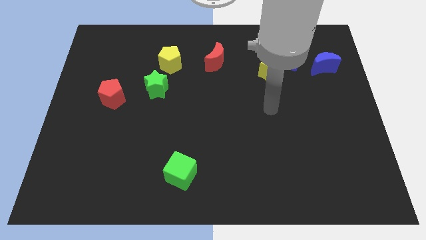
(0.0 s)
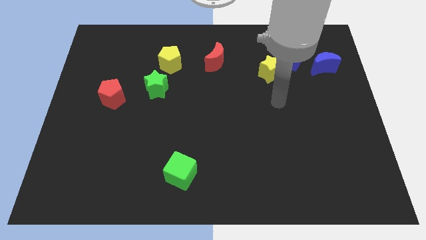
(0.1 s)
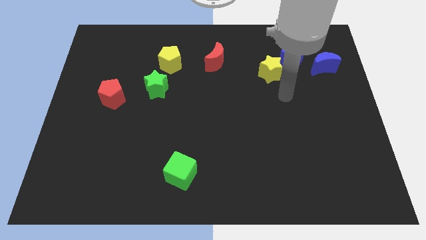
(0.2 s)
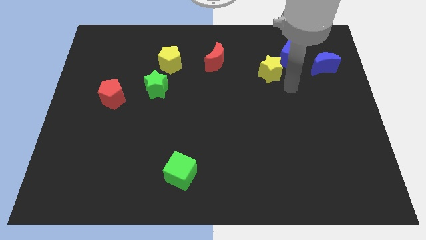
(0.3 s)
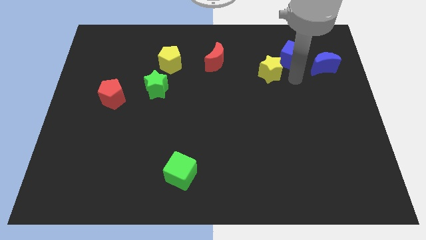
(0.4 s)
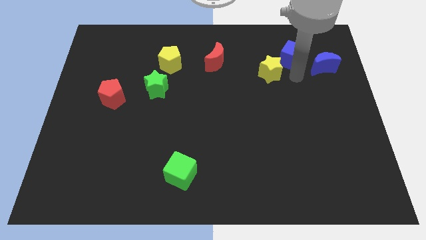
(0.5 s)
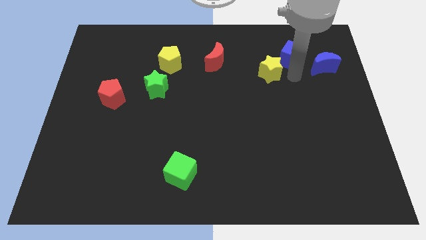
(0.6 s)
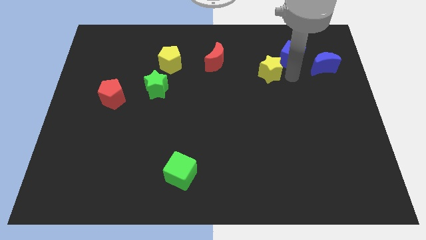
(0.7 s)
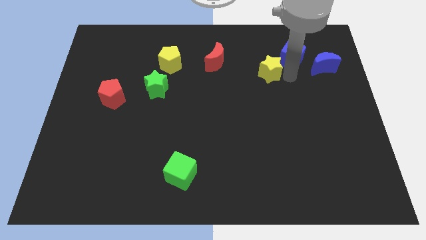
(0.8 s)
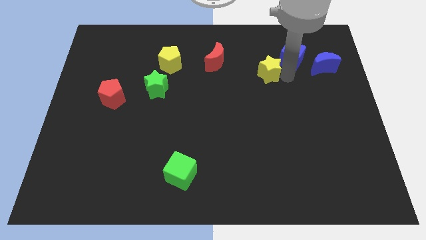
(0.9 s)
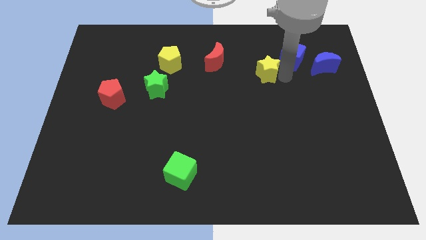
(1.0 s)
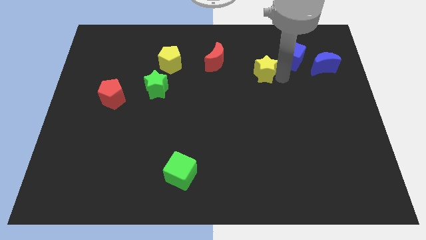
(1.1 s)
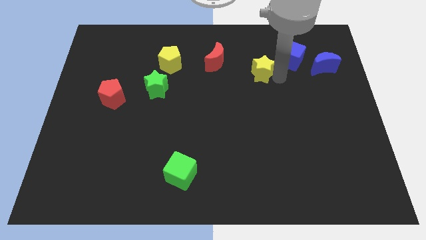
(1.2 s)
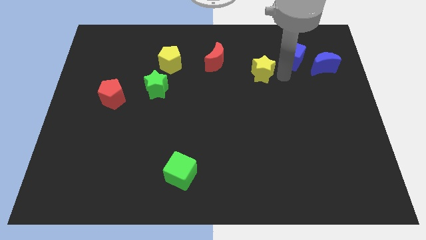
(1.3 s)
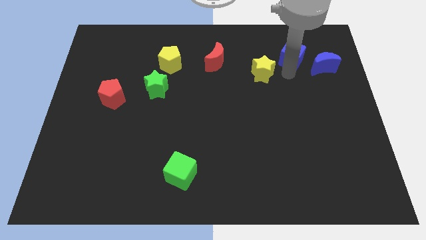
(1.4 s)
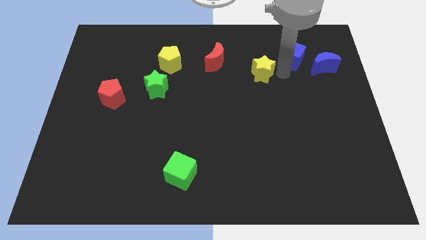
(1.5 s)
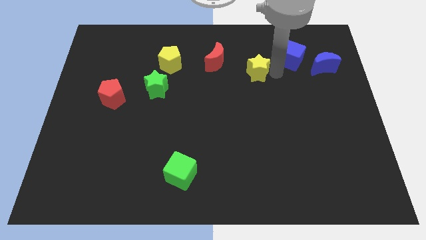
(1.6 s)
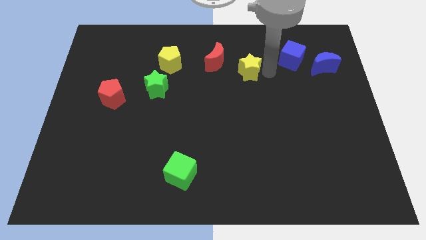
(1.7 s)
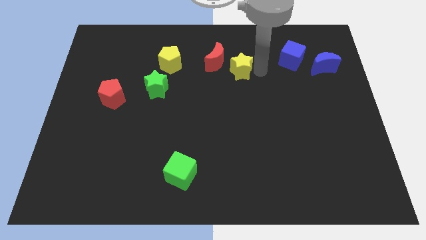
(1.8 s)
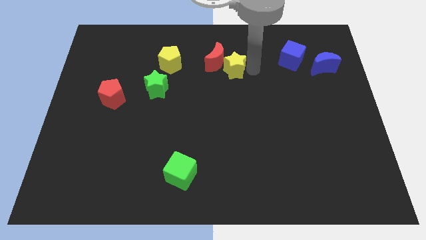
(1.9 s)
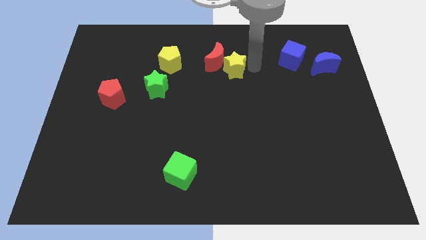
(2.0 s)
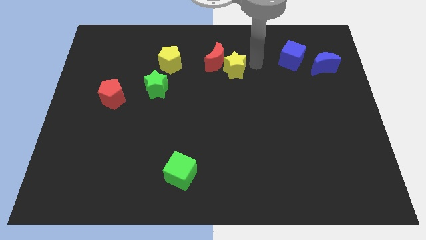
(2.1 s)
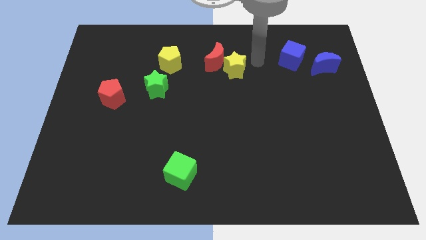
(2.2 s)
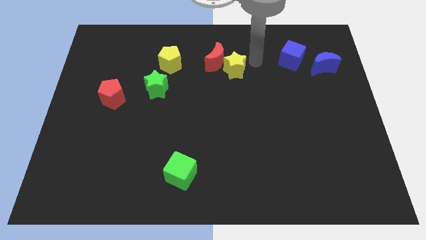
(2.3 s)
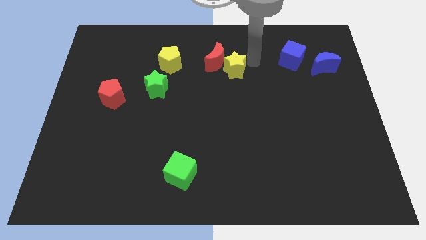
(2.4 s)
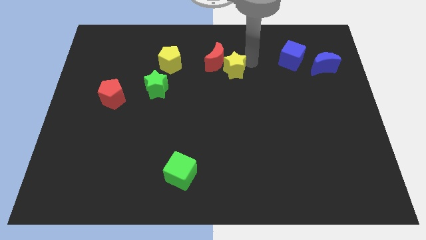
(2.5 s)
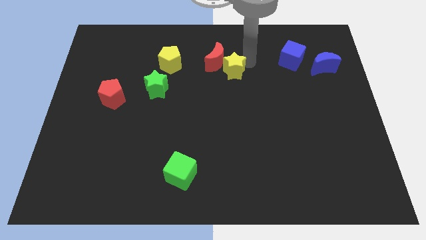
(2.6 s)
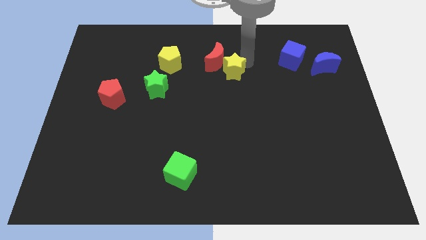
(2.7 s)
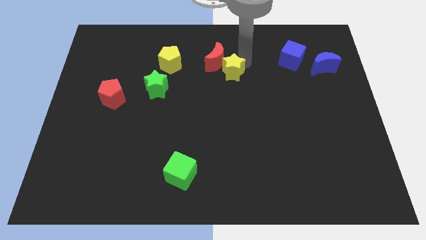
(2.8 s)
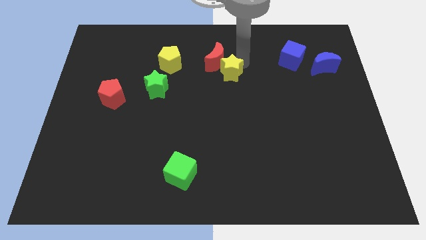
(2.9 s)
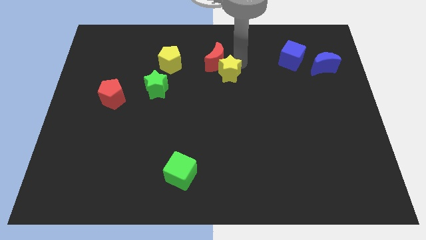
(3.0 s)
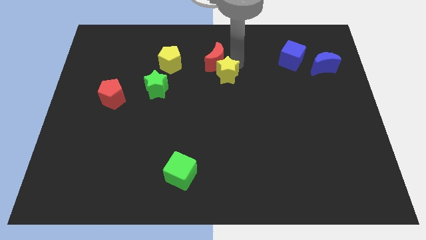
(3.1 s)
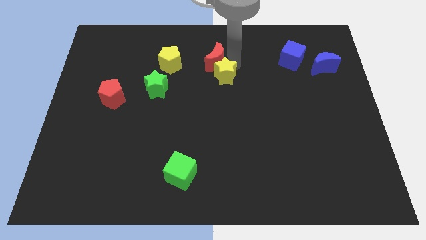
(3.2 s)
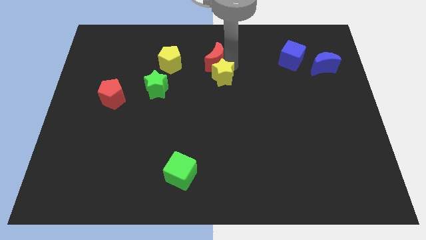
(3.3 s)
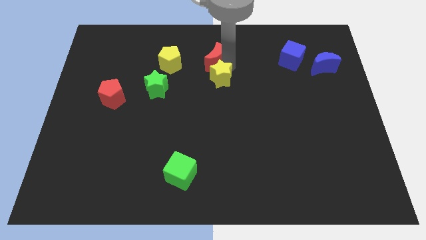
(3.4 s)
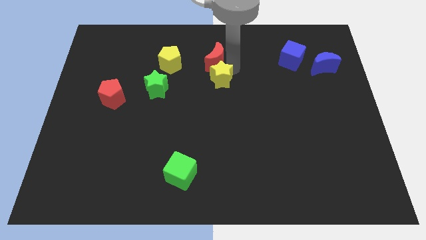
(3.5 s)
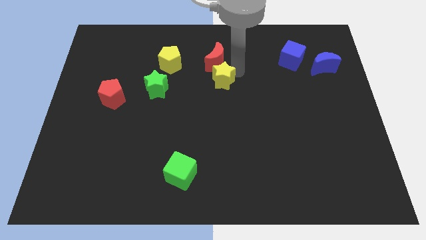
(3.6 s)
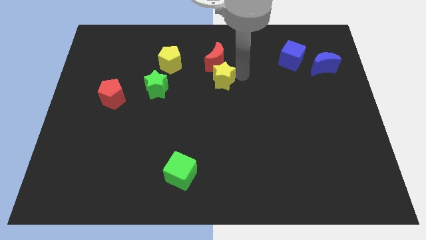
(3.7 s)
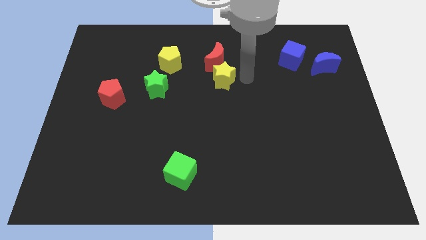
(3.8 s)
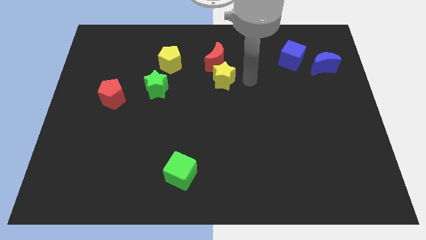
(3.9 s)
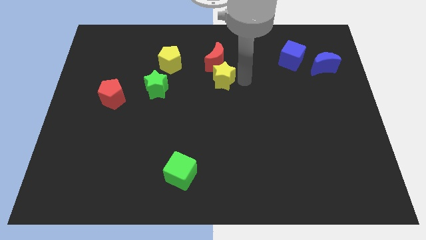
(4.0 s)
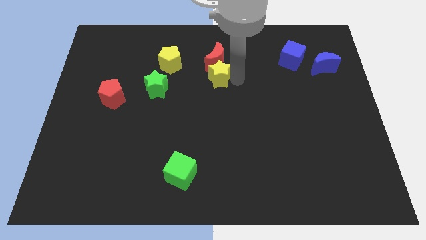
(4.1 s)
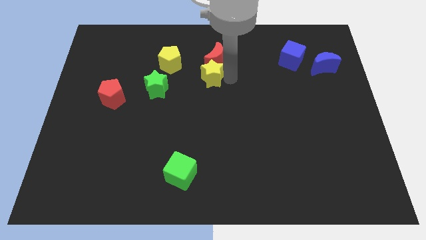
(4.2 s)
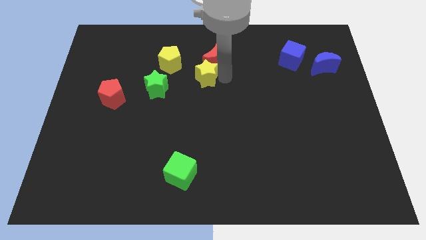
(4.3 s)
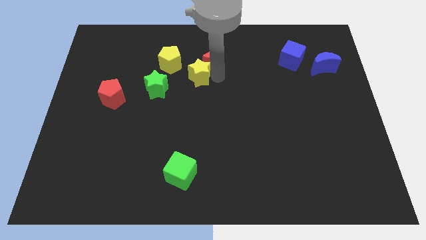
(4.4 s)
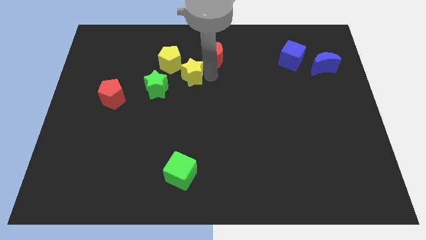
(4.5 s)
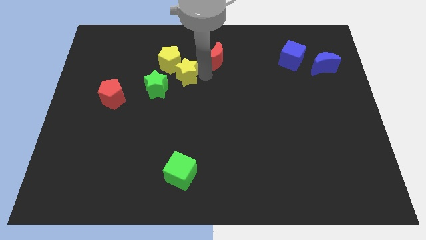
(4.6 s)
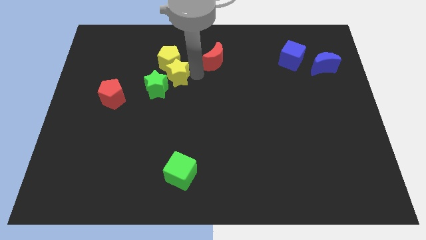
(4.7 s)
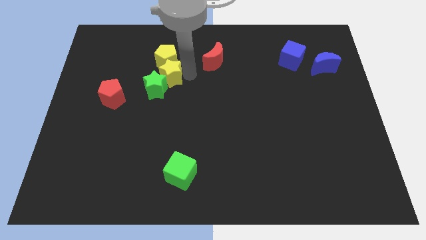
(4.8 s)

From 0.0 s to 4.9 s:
slide the yellow star to the bottom left side of the yellow pentagon

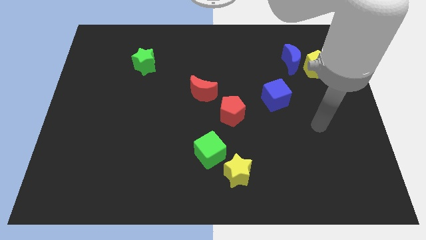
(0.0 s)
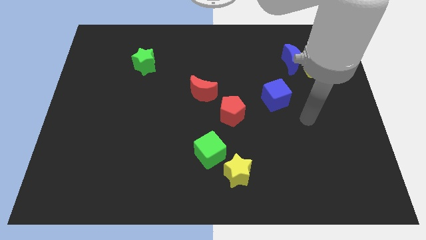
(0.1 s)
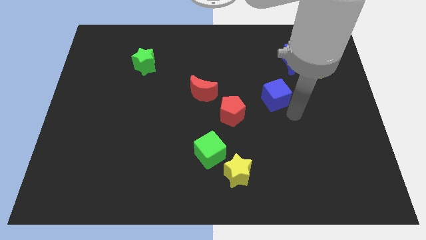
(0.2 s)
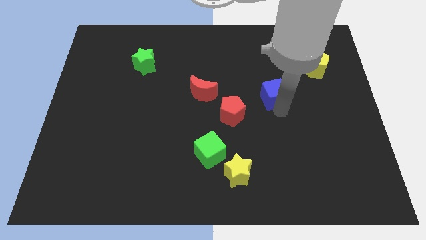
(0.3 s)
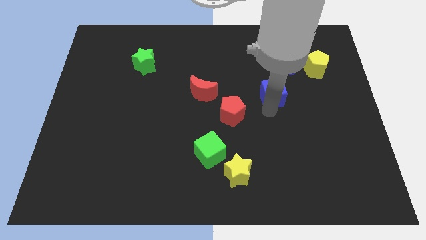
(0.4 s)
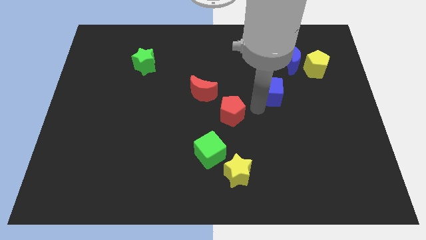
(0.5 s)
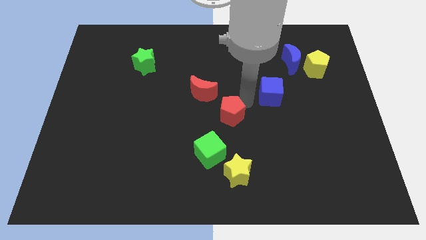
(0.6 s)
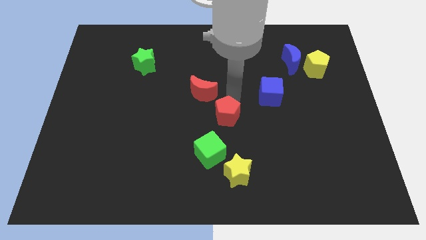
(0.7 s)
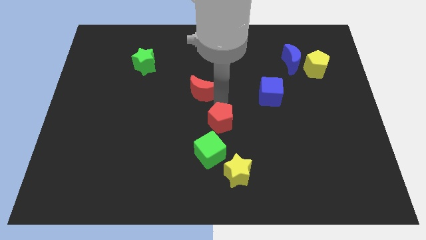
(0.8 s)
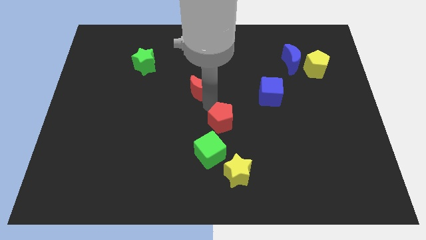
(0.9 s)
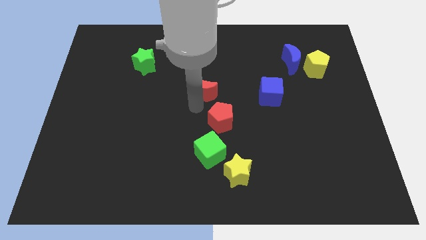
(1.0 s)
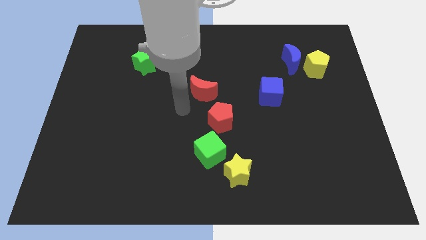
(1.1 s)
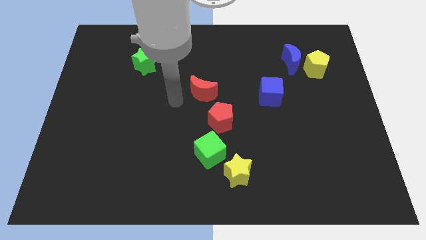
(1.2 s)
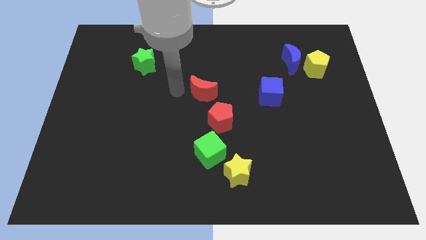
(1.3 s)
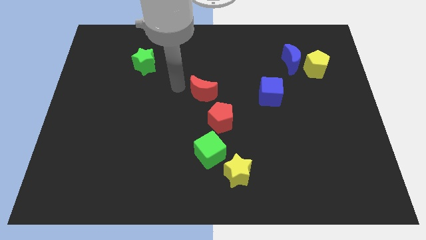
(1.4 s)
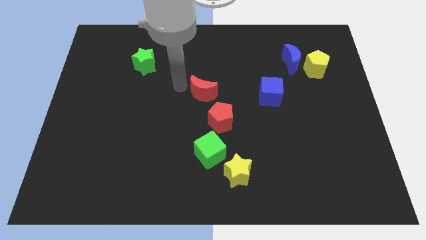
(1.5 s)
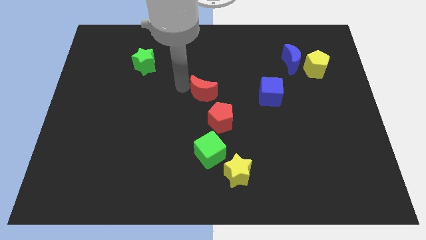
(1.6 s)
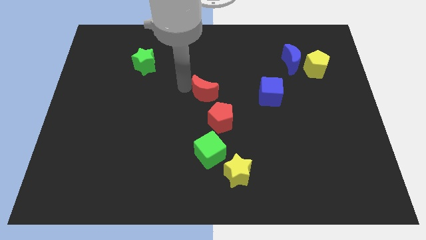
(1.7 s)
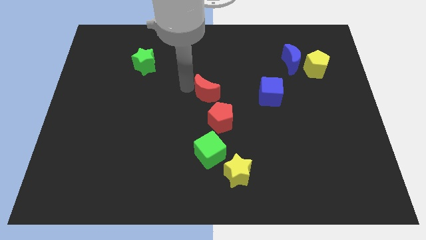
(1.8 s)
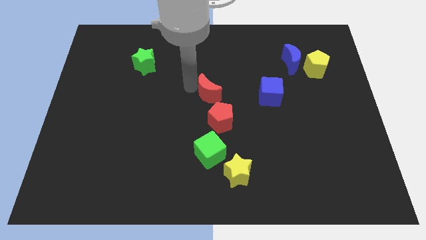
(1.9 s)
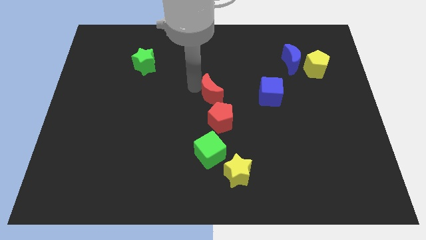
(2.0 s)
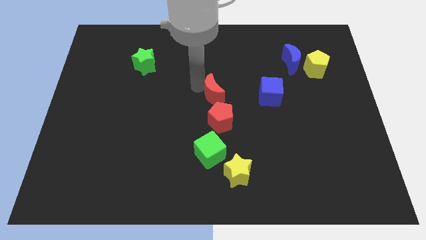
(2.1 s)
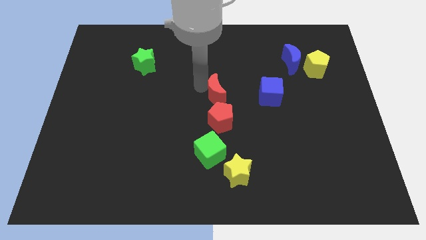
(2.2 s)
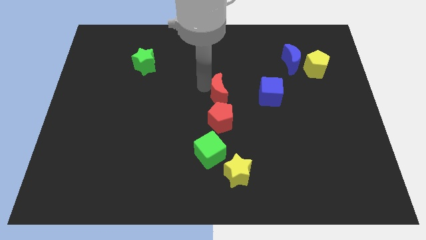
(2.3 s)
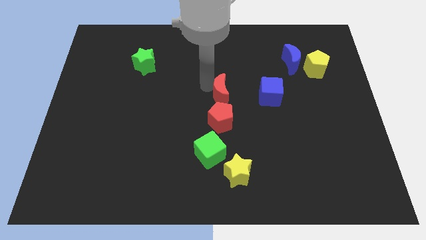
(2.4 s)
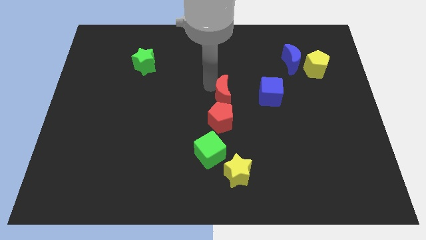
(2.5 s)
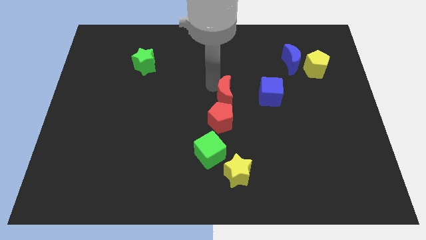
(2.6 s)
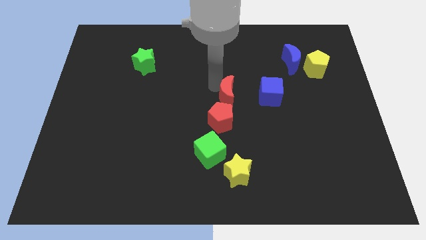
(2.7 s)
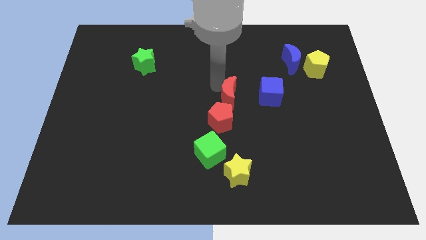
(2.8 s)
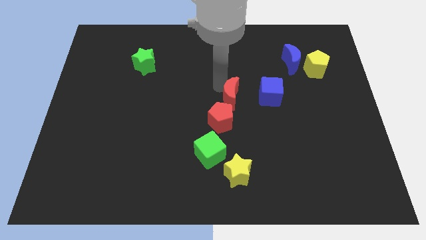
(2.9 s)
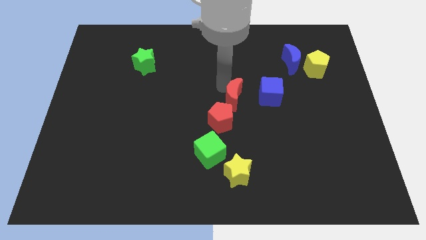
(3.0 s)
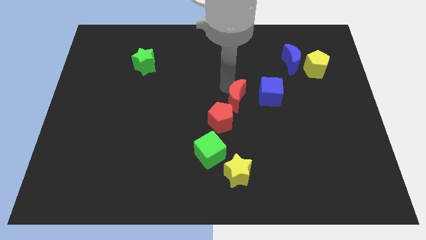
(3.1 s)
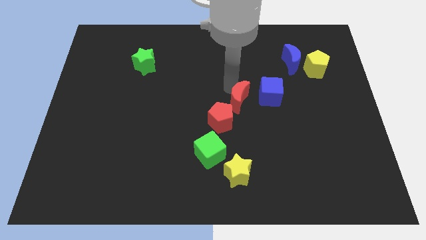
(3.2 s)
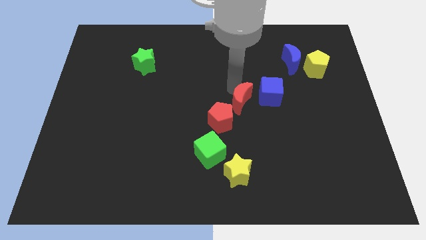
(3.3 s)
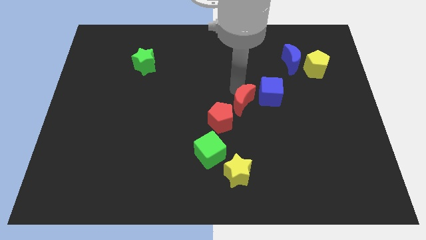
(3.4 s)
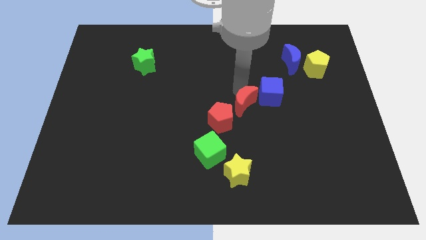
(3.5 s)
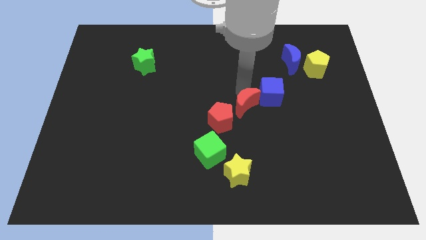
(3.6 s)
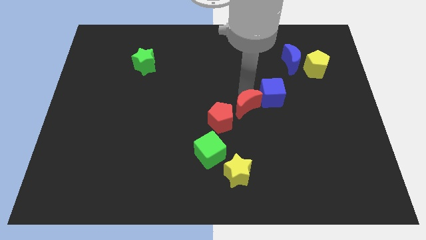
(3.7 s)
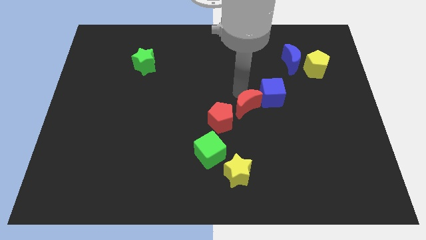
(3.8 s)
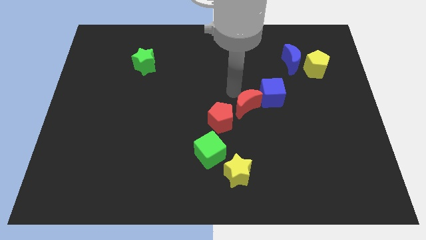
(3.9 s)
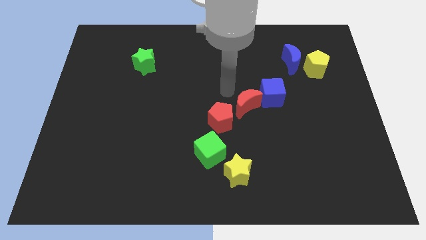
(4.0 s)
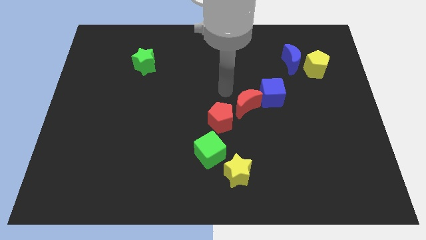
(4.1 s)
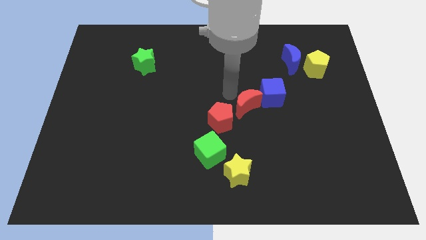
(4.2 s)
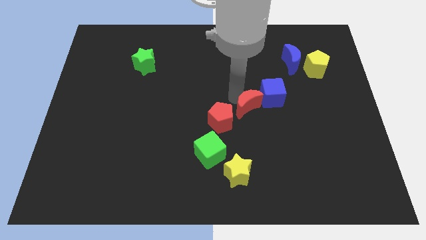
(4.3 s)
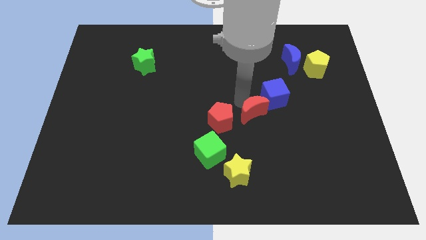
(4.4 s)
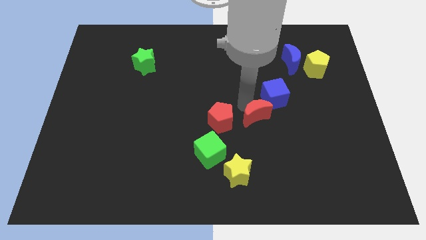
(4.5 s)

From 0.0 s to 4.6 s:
put the red moon to the bottom of the blue cube
